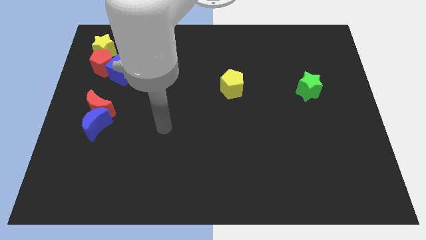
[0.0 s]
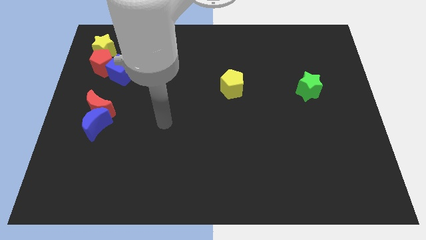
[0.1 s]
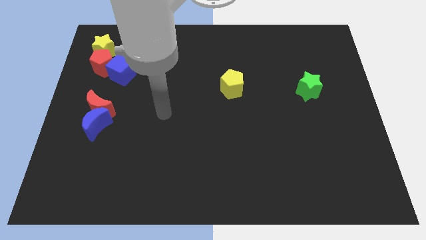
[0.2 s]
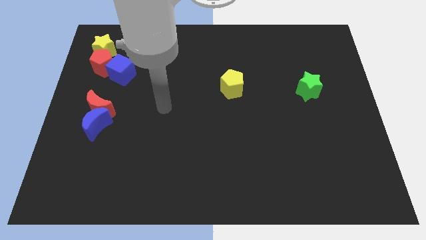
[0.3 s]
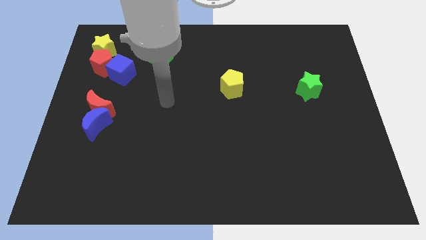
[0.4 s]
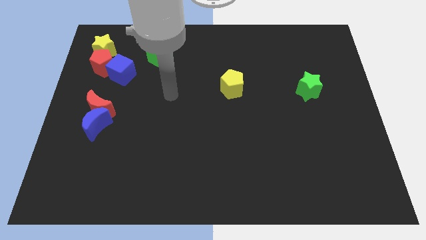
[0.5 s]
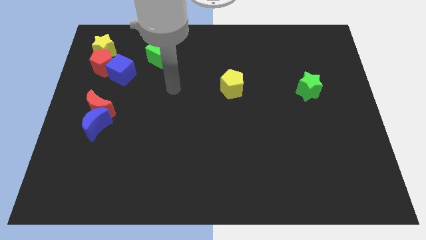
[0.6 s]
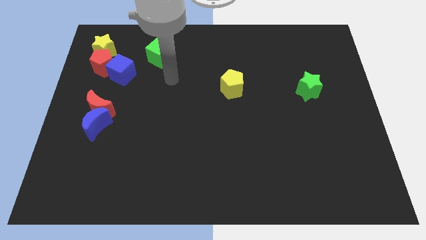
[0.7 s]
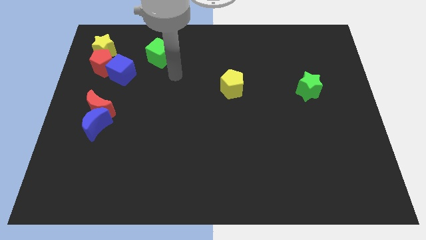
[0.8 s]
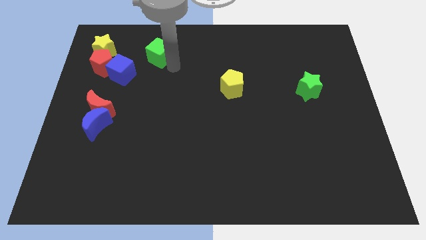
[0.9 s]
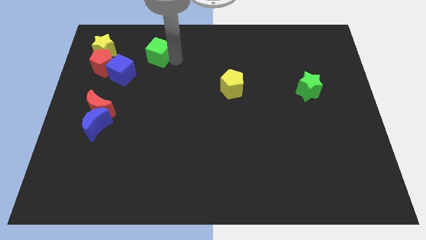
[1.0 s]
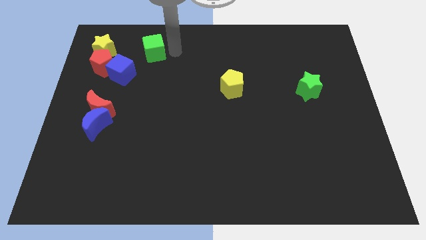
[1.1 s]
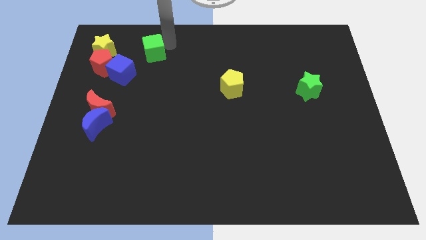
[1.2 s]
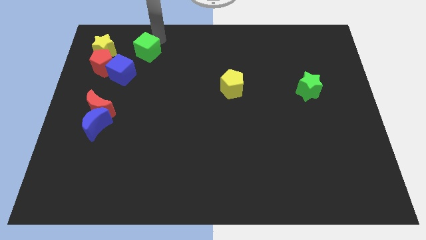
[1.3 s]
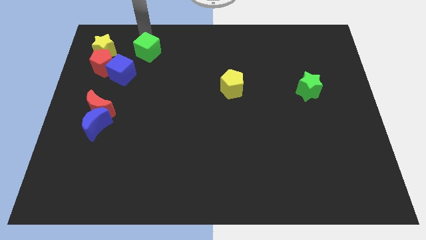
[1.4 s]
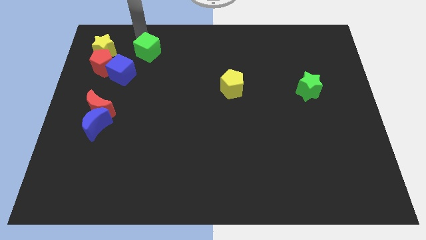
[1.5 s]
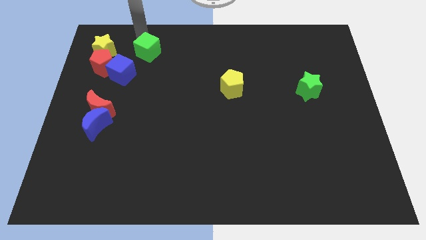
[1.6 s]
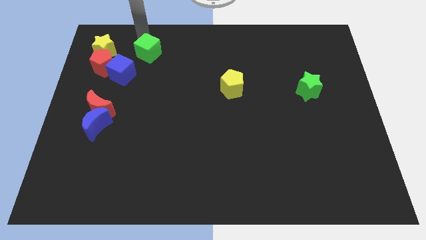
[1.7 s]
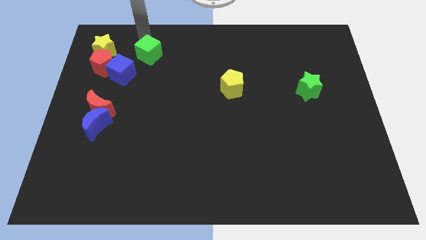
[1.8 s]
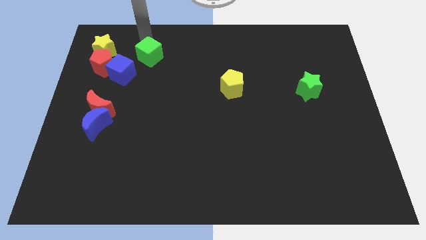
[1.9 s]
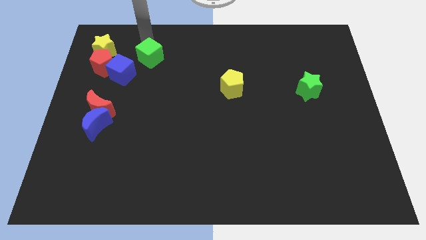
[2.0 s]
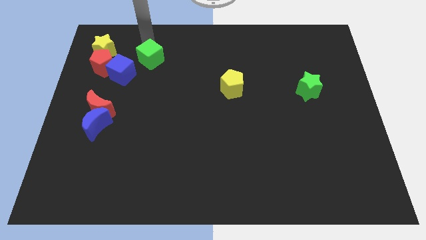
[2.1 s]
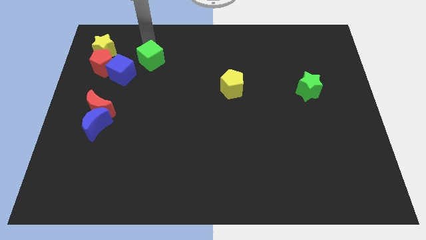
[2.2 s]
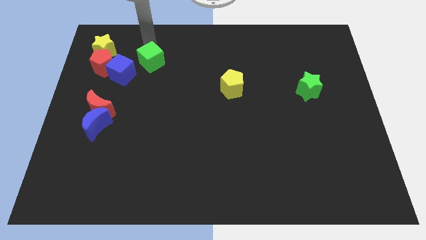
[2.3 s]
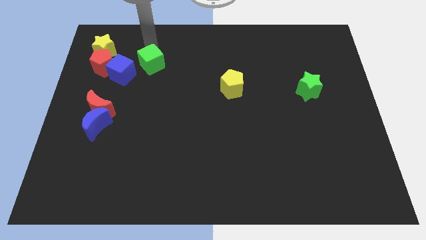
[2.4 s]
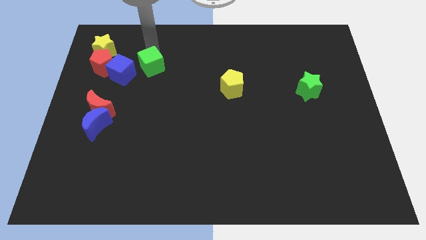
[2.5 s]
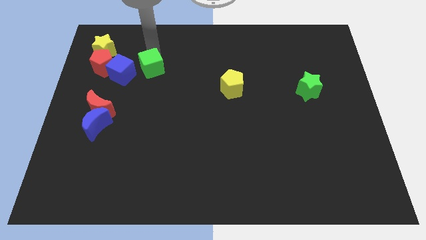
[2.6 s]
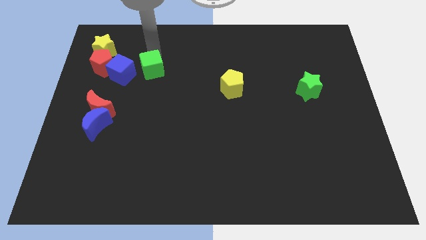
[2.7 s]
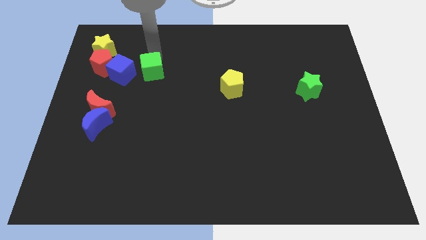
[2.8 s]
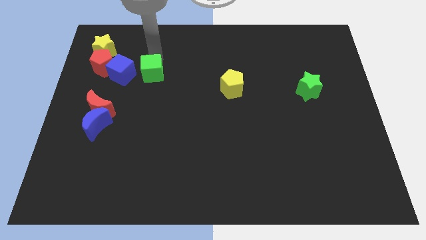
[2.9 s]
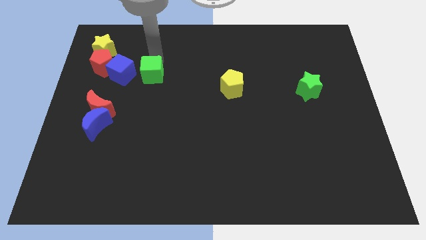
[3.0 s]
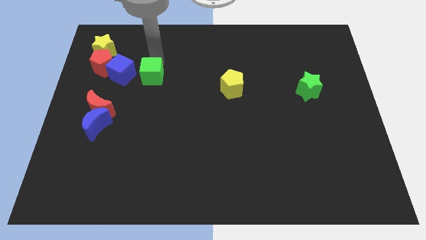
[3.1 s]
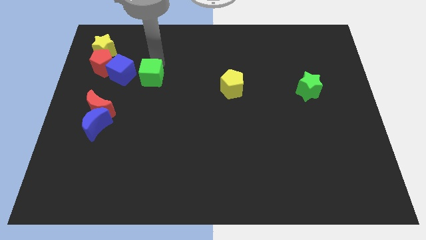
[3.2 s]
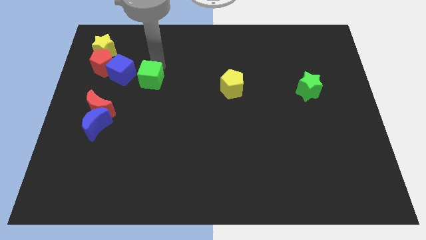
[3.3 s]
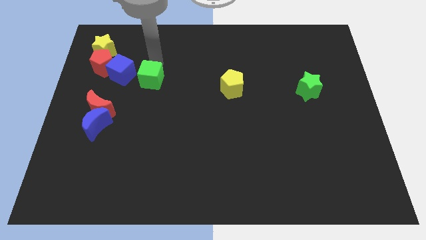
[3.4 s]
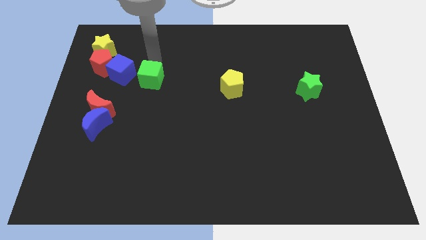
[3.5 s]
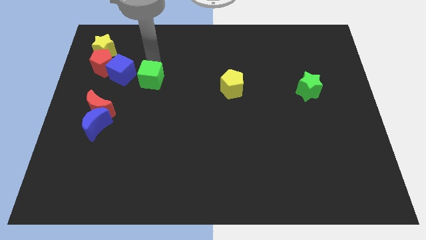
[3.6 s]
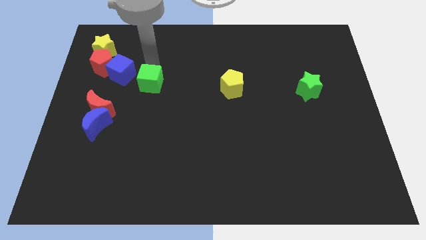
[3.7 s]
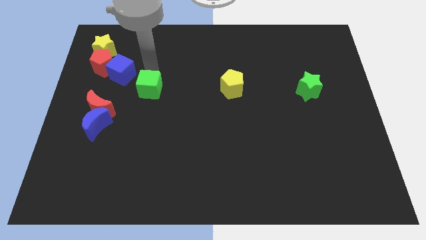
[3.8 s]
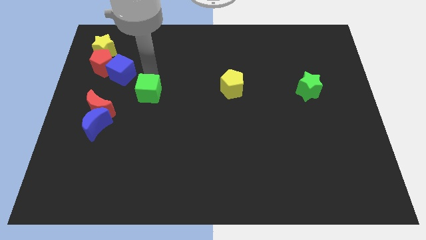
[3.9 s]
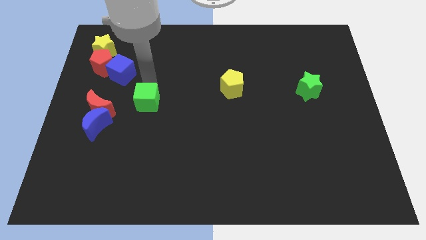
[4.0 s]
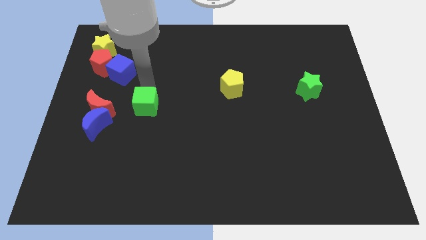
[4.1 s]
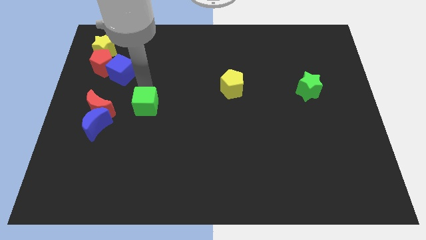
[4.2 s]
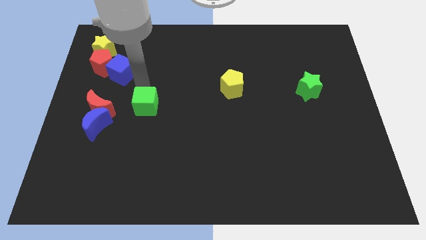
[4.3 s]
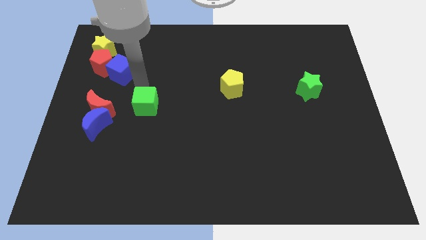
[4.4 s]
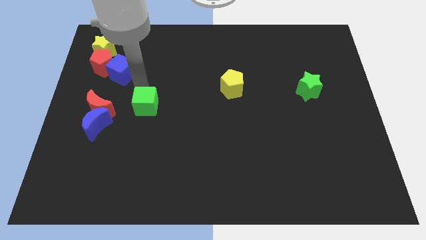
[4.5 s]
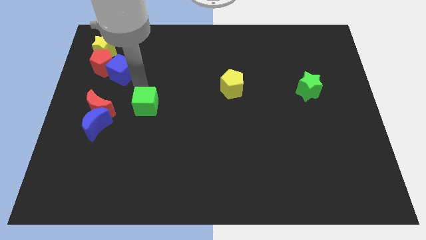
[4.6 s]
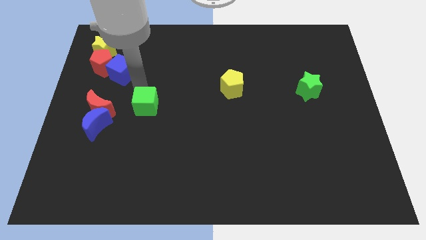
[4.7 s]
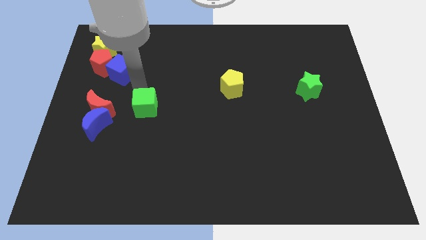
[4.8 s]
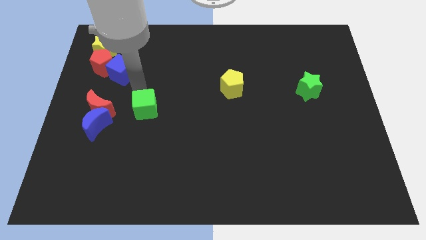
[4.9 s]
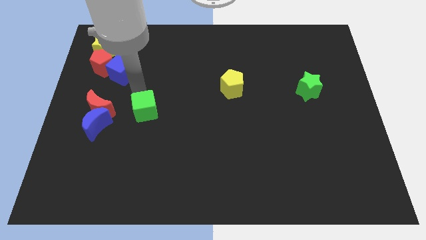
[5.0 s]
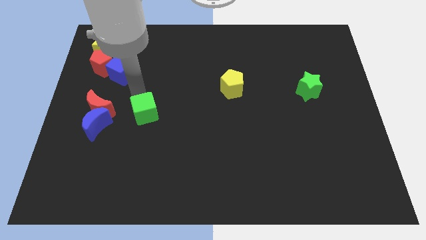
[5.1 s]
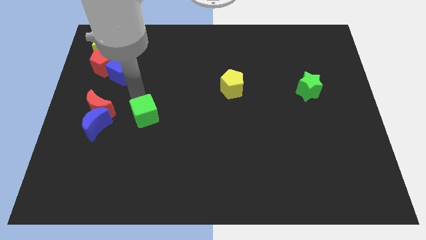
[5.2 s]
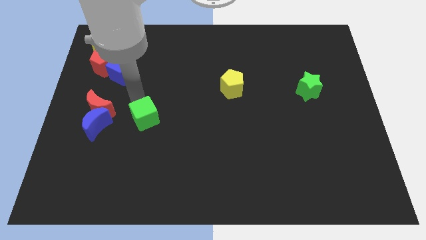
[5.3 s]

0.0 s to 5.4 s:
push the green cube downwards

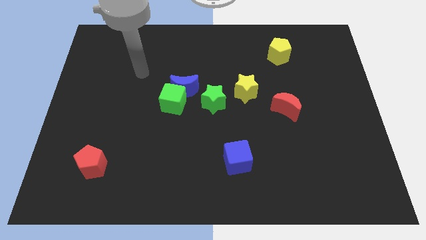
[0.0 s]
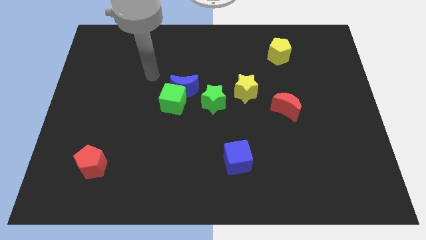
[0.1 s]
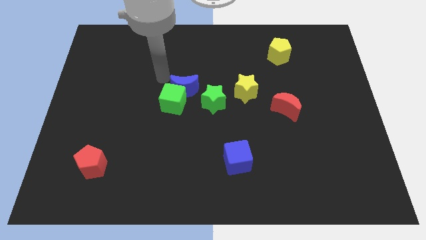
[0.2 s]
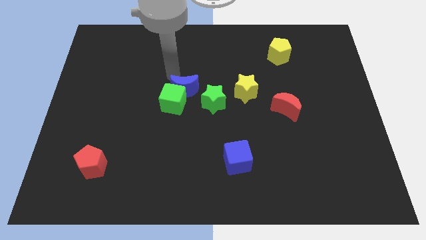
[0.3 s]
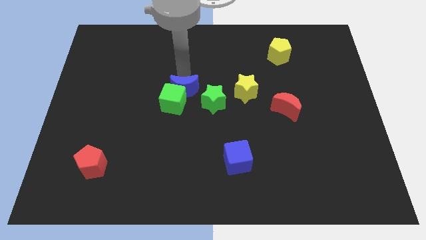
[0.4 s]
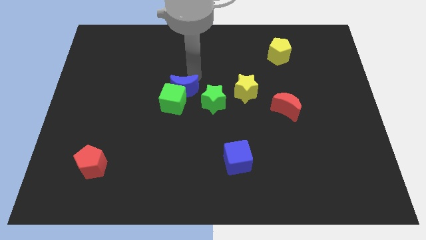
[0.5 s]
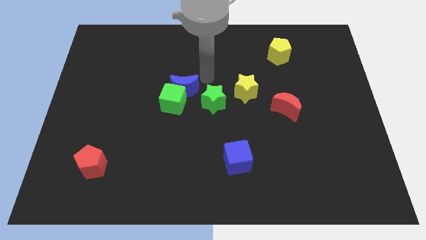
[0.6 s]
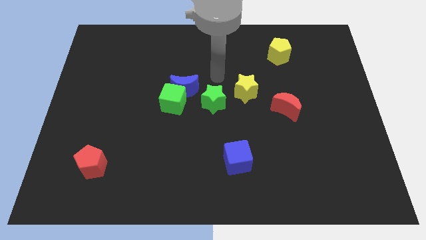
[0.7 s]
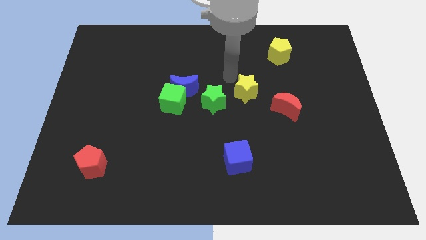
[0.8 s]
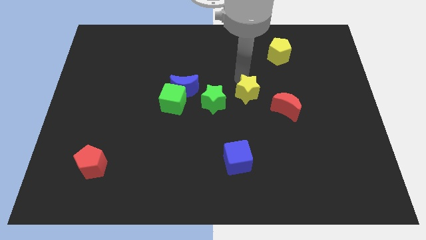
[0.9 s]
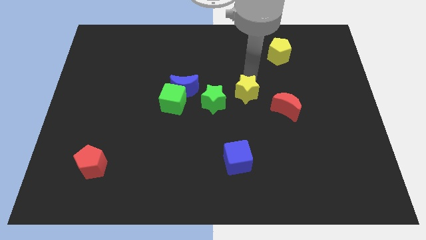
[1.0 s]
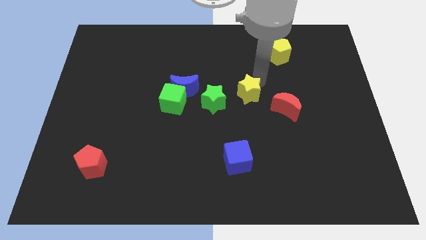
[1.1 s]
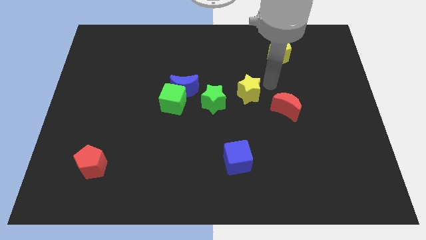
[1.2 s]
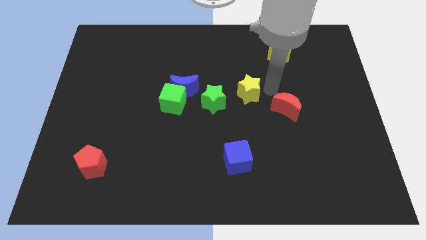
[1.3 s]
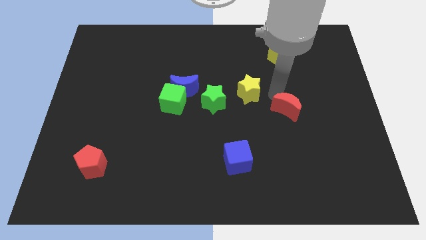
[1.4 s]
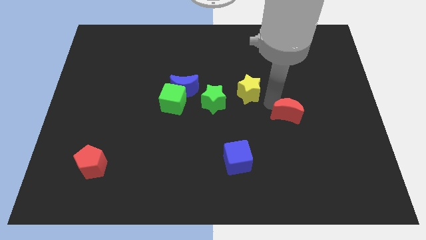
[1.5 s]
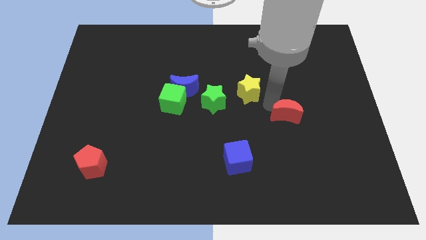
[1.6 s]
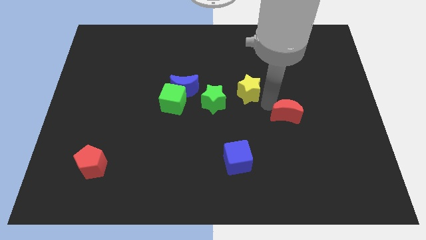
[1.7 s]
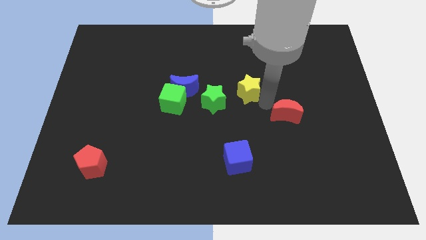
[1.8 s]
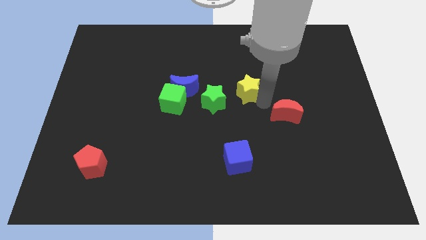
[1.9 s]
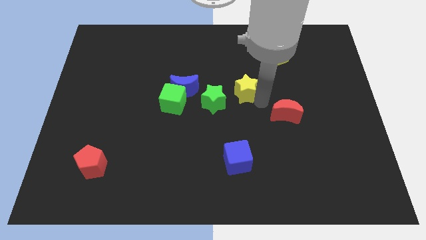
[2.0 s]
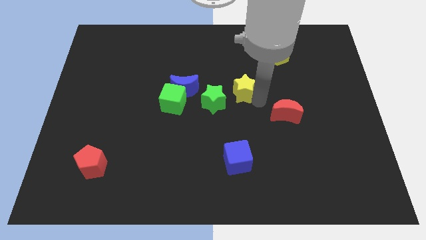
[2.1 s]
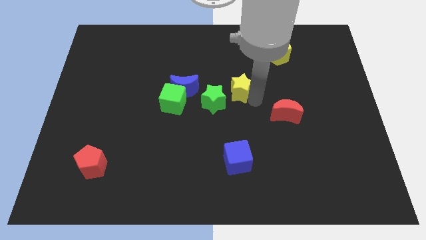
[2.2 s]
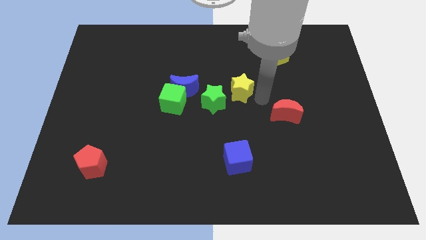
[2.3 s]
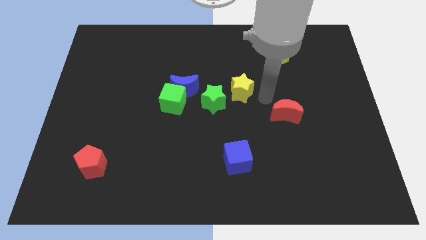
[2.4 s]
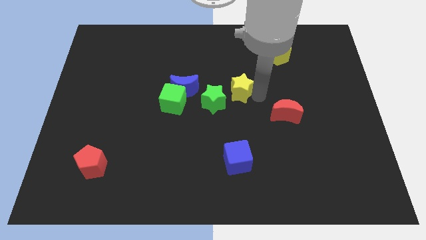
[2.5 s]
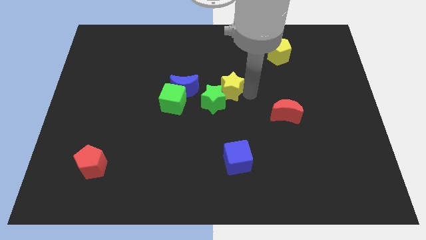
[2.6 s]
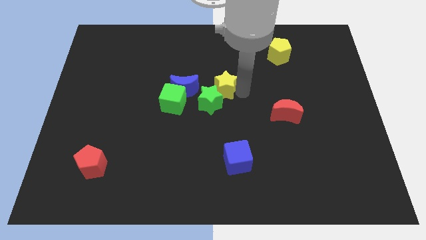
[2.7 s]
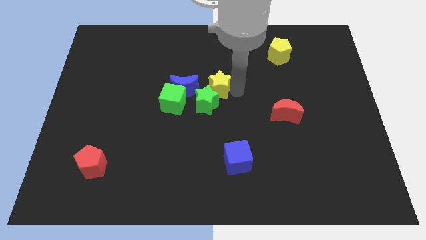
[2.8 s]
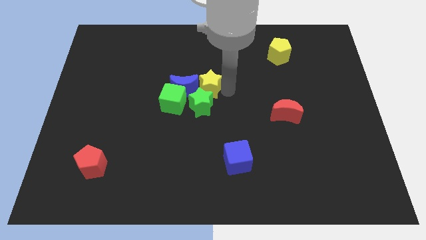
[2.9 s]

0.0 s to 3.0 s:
slightly push the yellow star to the left
